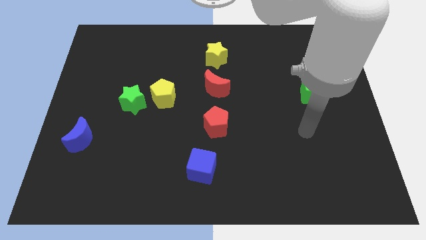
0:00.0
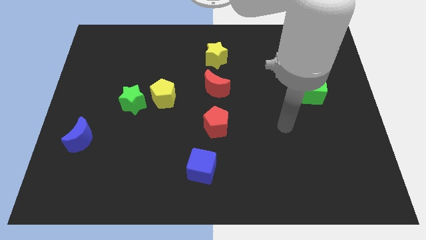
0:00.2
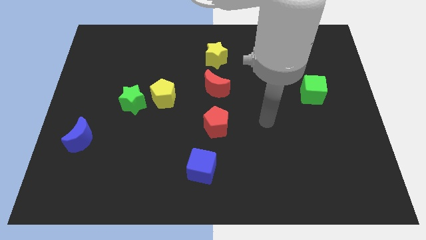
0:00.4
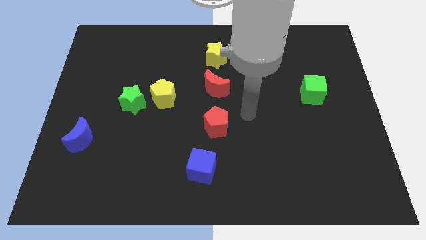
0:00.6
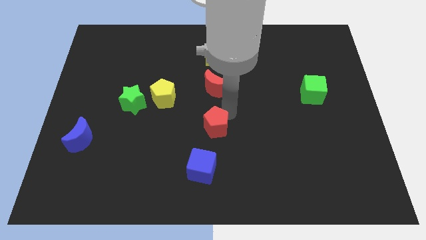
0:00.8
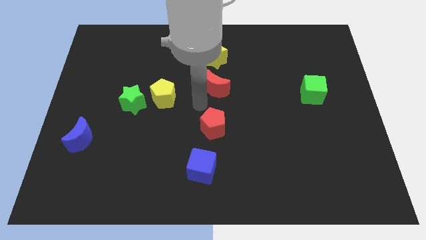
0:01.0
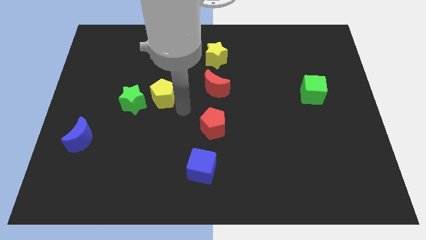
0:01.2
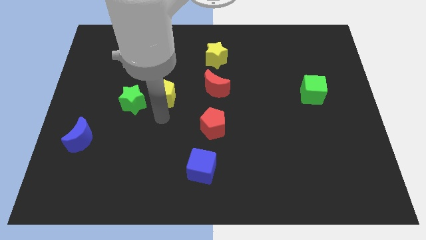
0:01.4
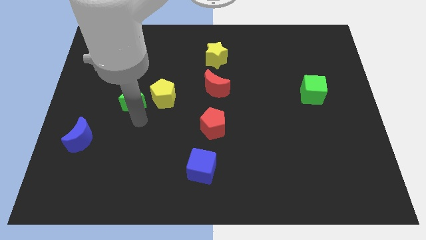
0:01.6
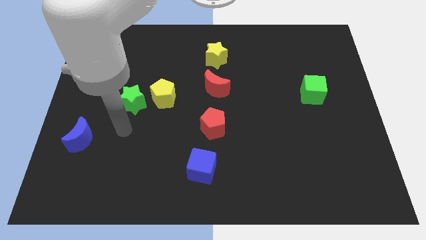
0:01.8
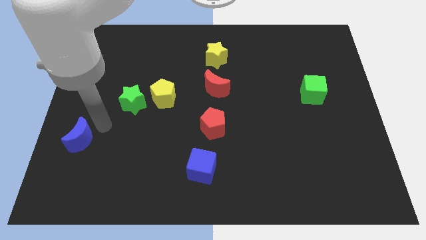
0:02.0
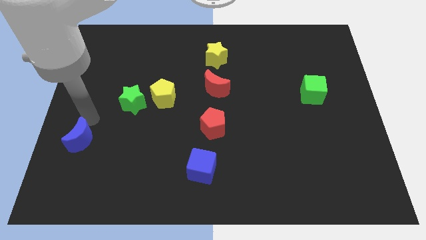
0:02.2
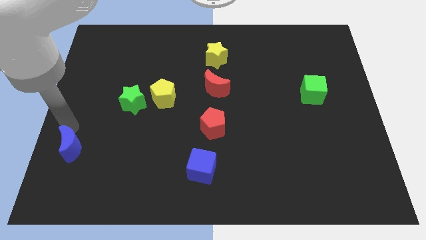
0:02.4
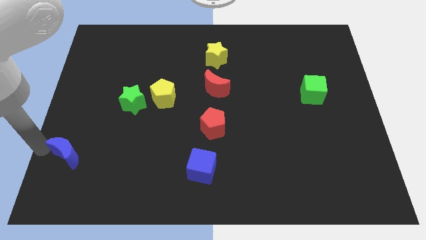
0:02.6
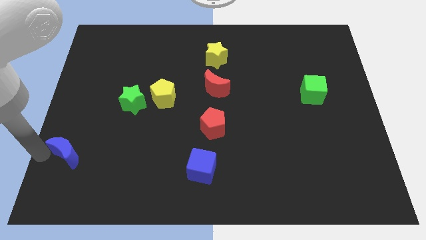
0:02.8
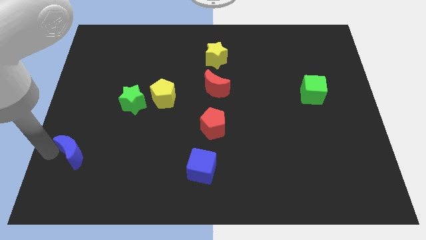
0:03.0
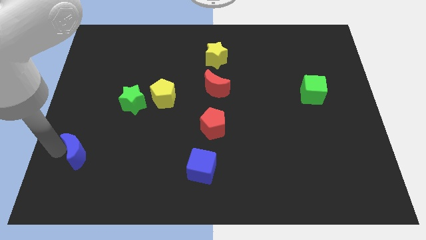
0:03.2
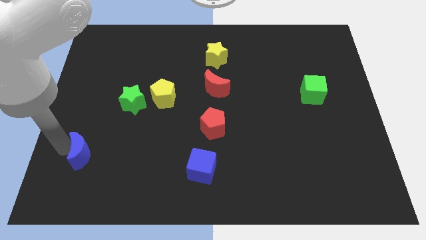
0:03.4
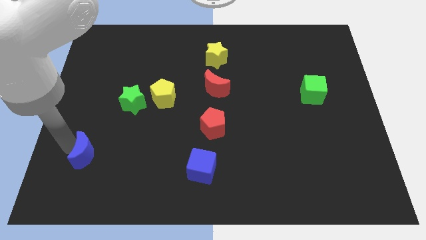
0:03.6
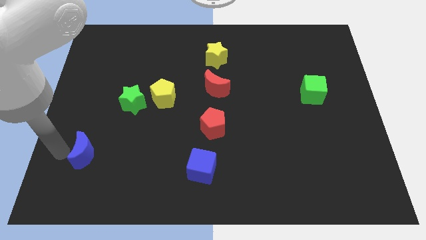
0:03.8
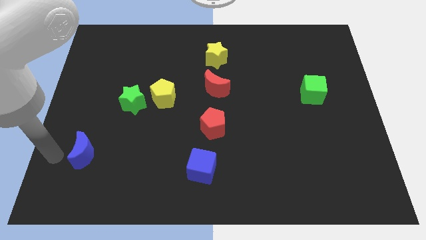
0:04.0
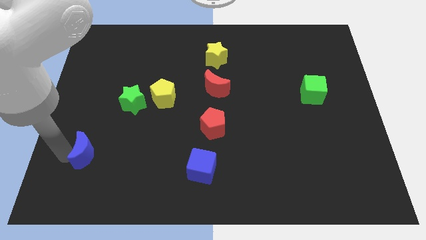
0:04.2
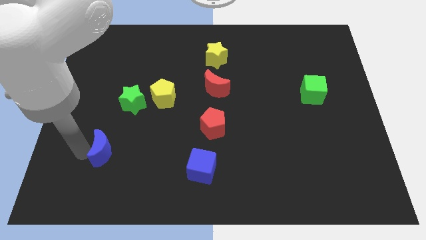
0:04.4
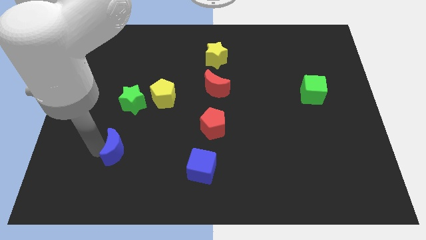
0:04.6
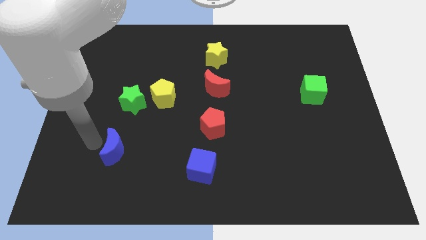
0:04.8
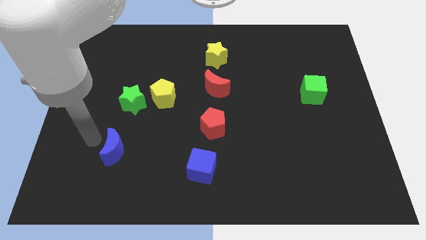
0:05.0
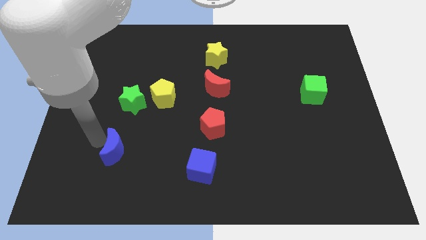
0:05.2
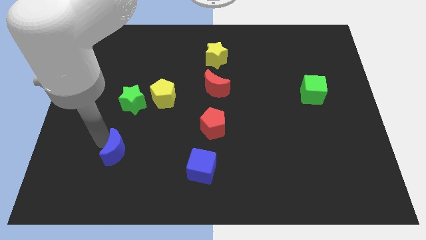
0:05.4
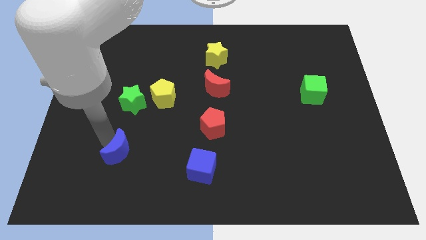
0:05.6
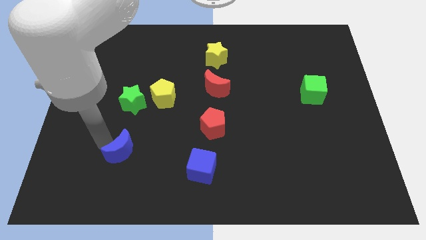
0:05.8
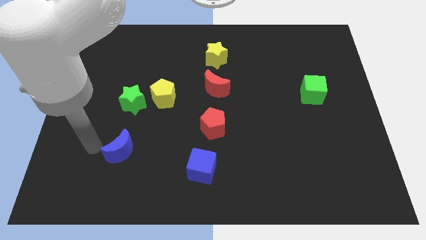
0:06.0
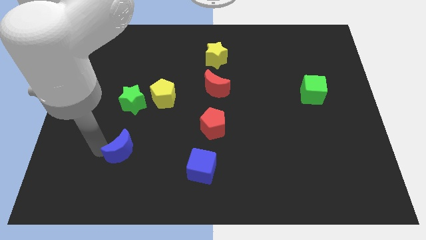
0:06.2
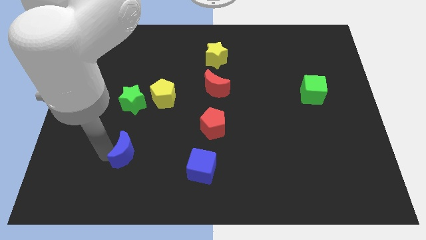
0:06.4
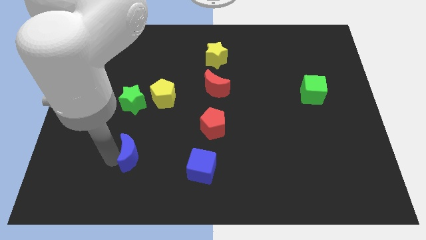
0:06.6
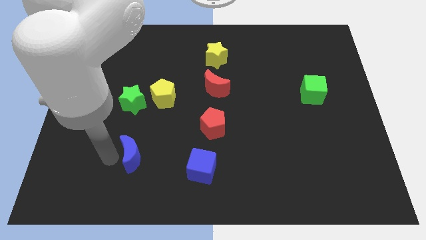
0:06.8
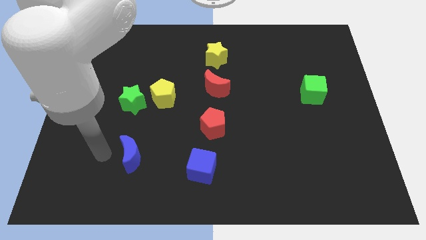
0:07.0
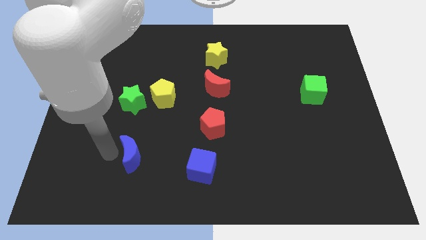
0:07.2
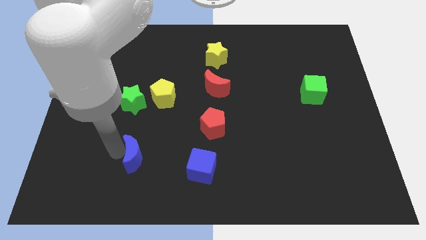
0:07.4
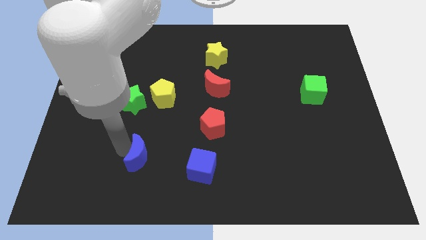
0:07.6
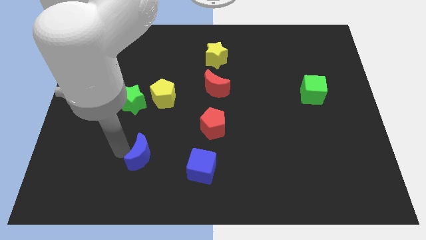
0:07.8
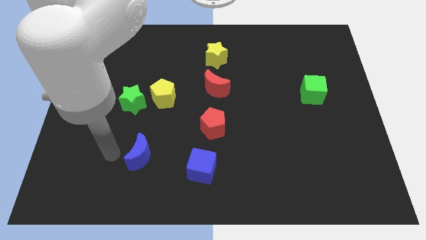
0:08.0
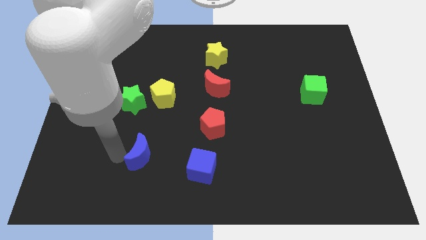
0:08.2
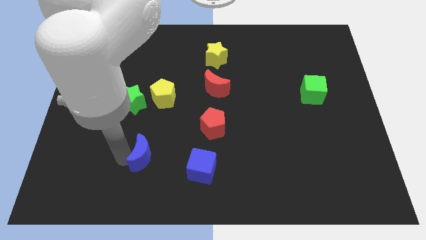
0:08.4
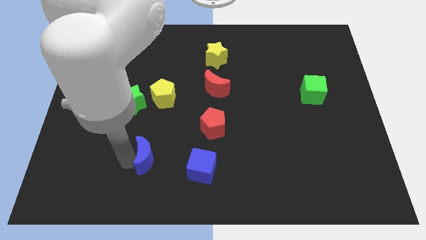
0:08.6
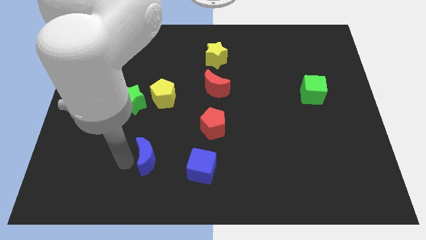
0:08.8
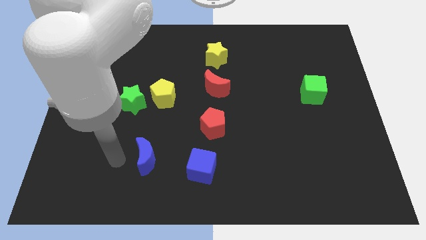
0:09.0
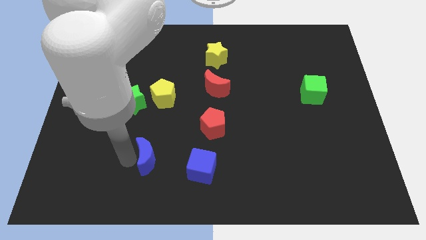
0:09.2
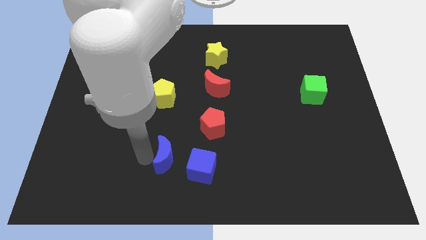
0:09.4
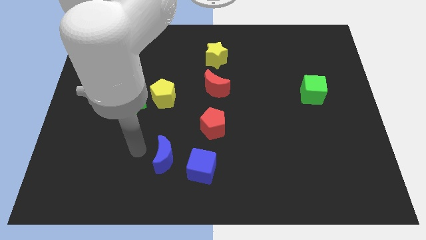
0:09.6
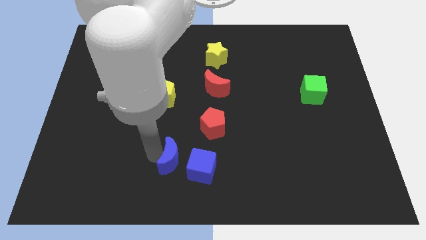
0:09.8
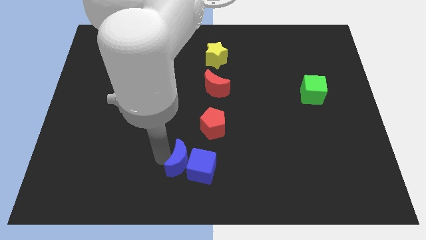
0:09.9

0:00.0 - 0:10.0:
put the blue moon close to the blue cube

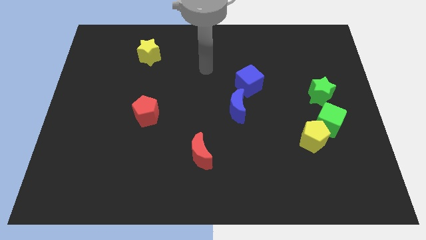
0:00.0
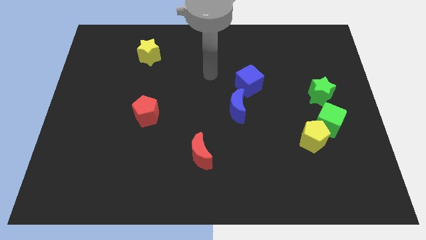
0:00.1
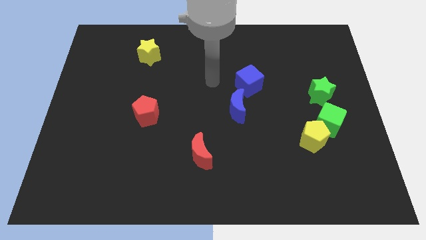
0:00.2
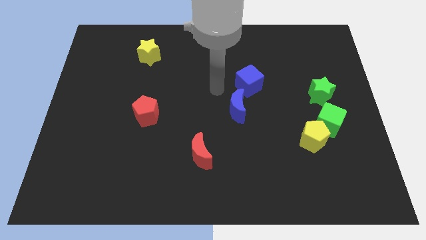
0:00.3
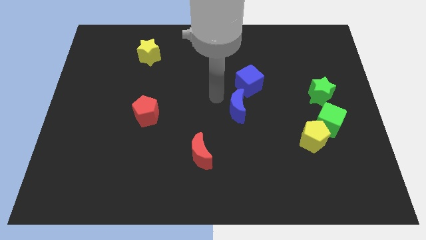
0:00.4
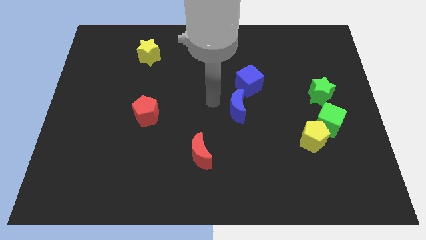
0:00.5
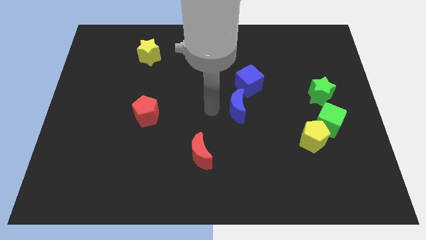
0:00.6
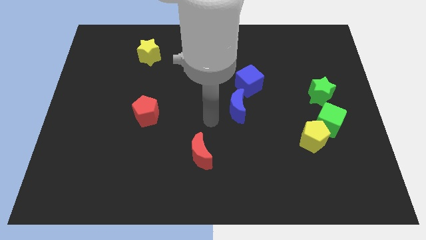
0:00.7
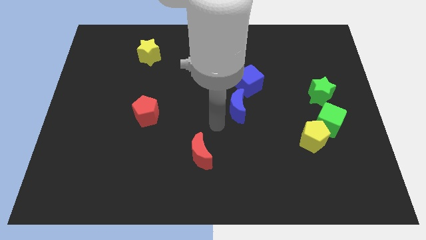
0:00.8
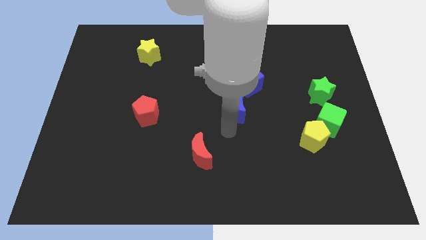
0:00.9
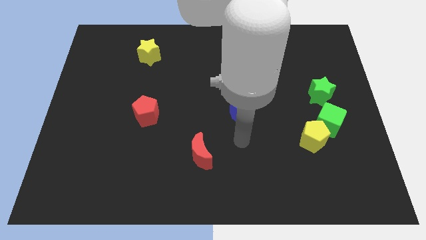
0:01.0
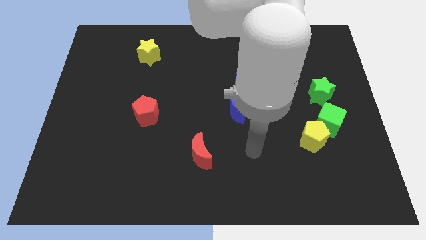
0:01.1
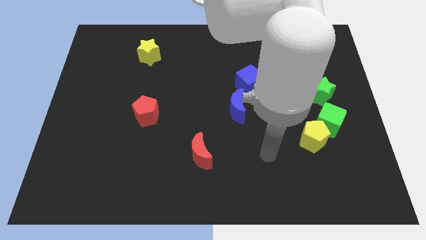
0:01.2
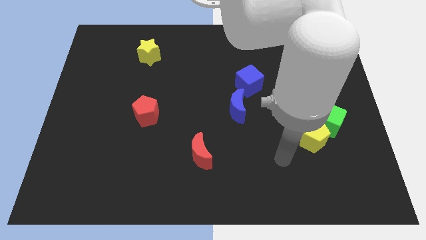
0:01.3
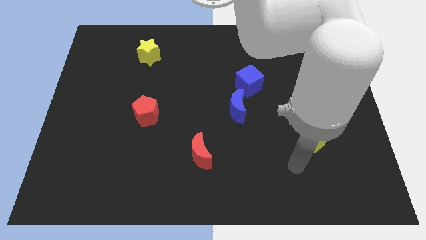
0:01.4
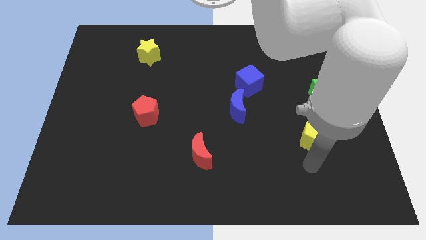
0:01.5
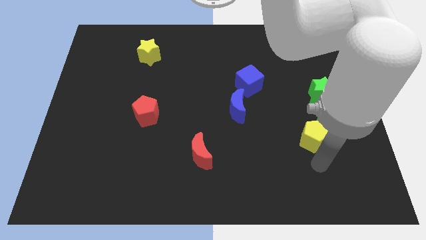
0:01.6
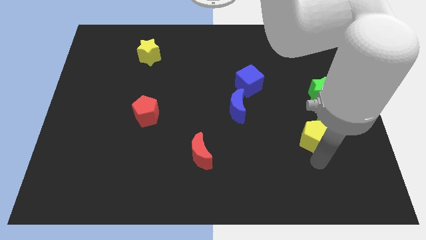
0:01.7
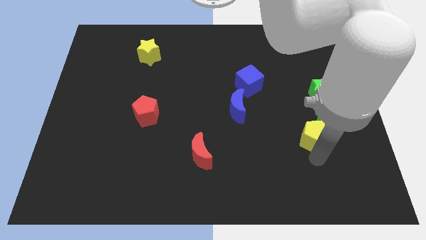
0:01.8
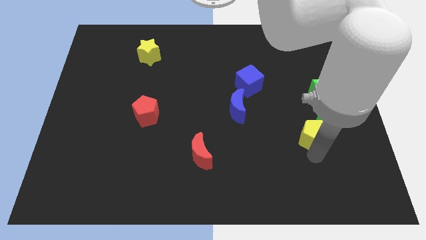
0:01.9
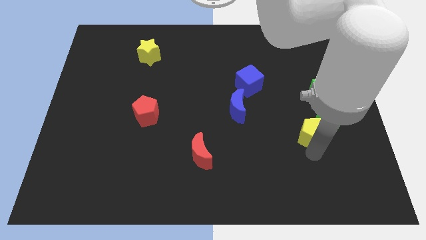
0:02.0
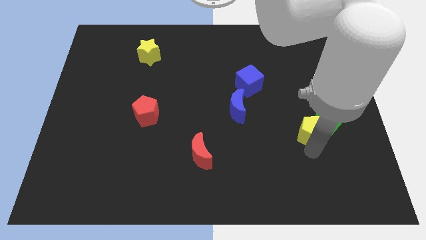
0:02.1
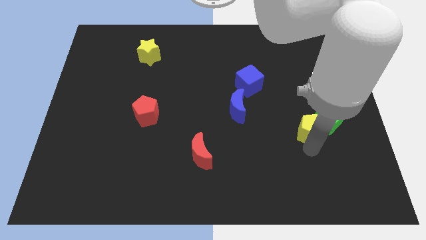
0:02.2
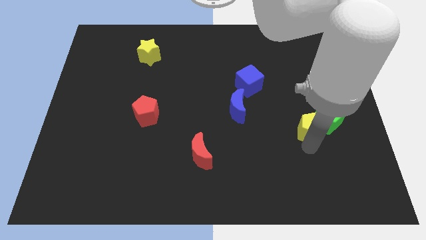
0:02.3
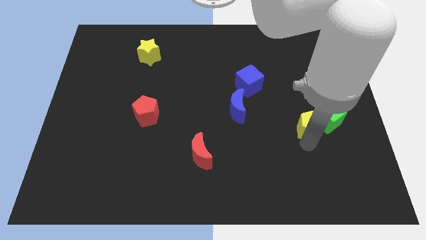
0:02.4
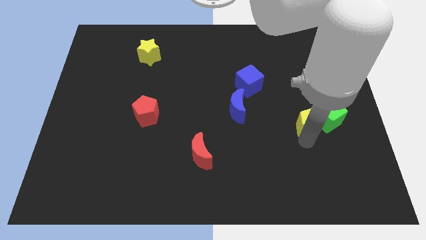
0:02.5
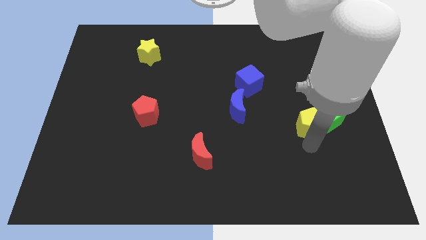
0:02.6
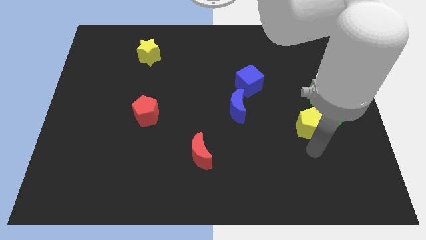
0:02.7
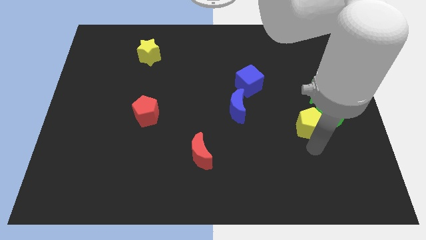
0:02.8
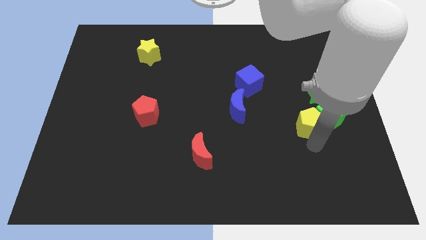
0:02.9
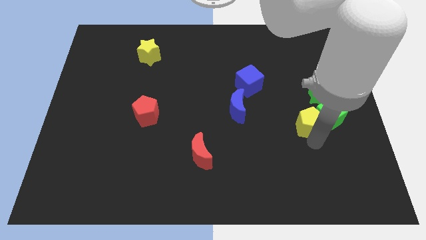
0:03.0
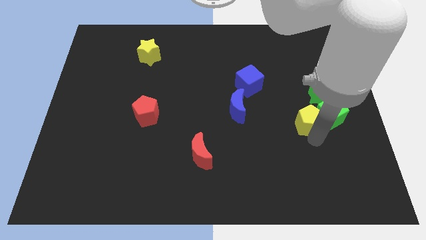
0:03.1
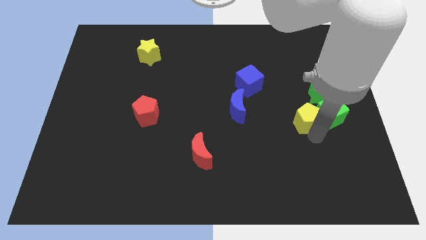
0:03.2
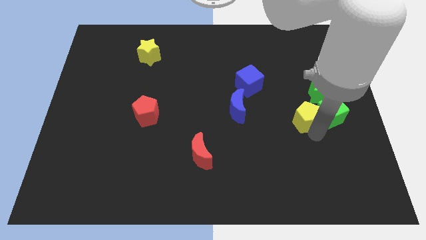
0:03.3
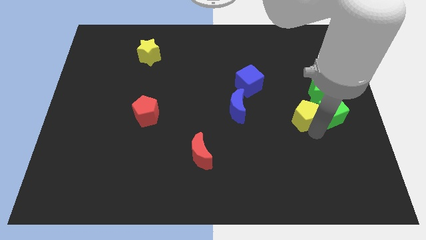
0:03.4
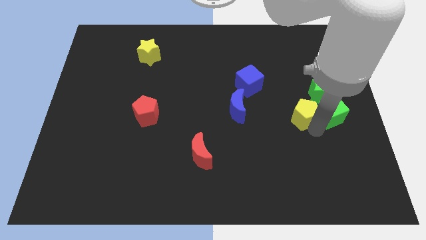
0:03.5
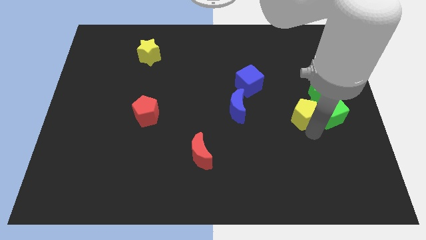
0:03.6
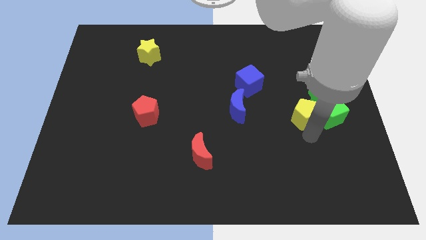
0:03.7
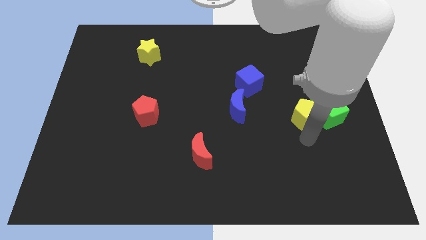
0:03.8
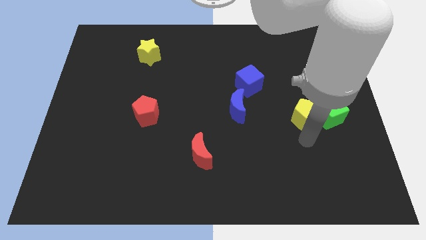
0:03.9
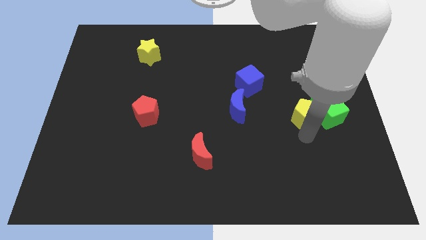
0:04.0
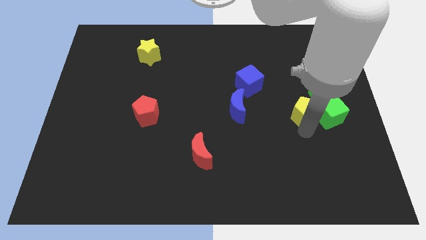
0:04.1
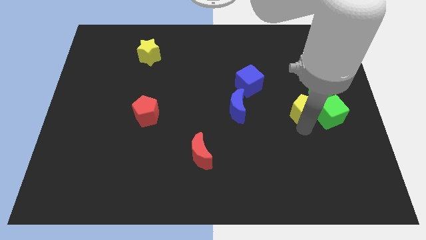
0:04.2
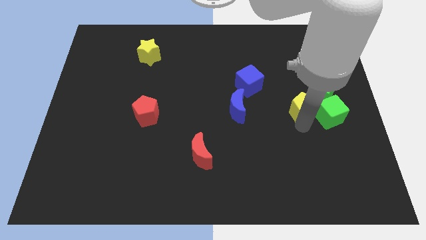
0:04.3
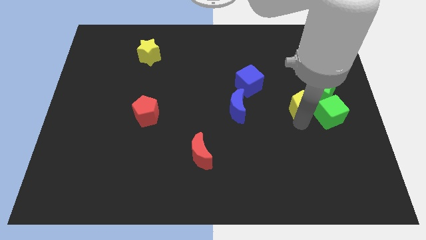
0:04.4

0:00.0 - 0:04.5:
put the yellow pentagon close to the green star
